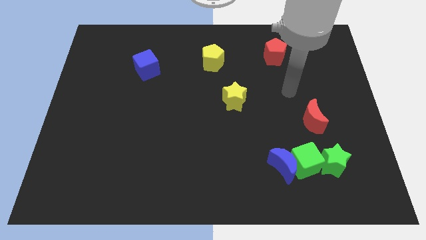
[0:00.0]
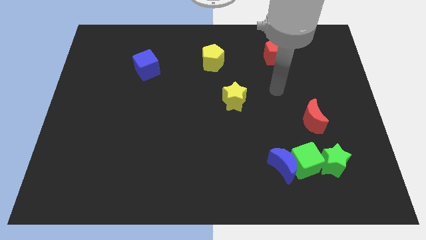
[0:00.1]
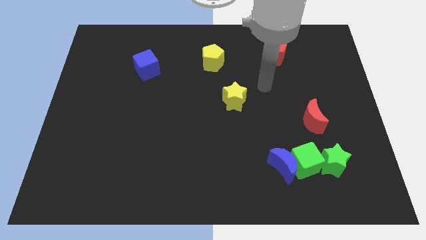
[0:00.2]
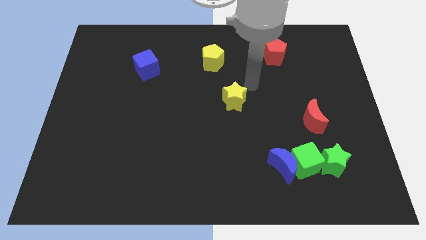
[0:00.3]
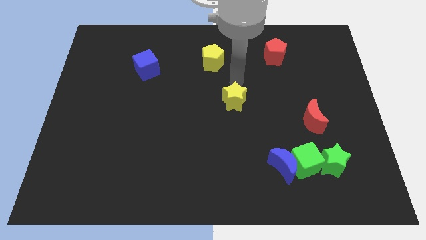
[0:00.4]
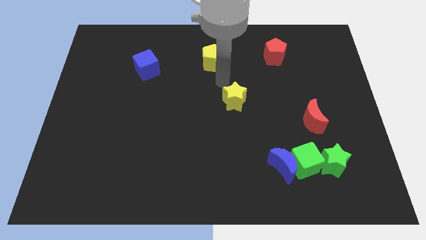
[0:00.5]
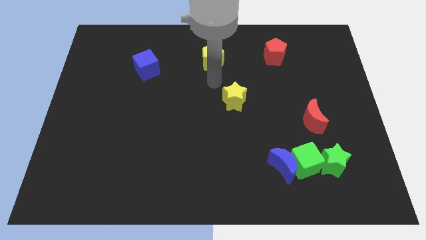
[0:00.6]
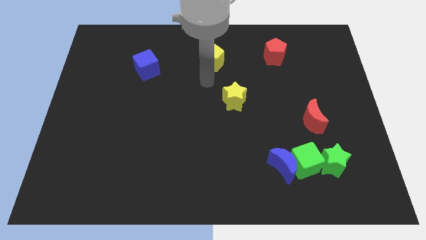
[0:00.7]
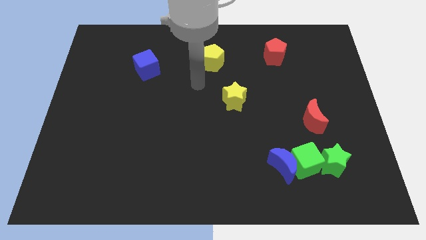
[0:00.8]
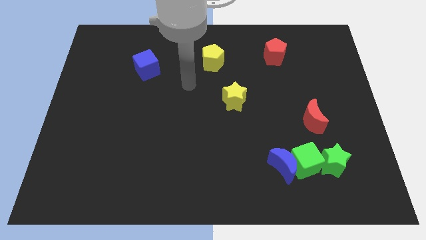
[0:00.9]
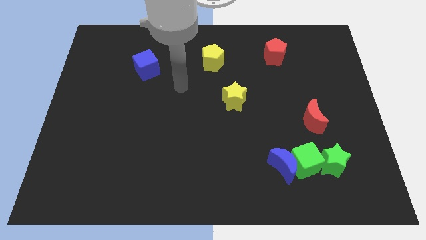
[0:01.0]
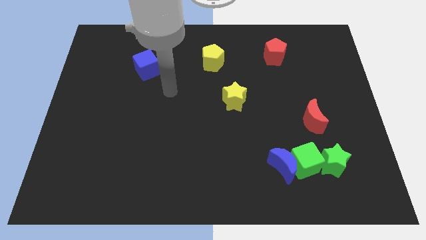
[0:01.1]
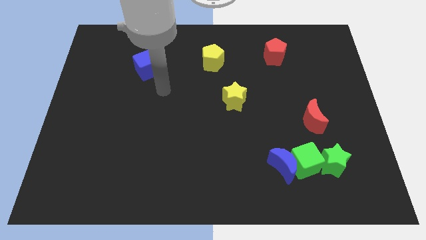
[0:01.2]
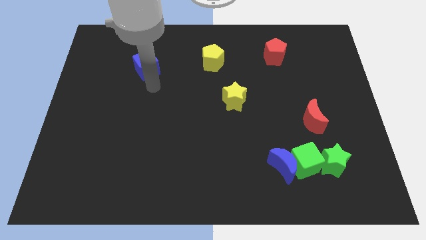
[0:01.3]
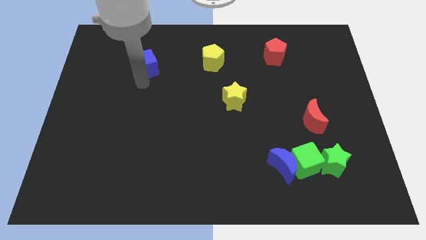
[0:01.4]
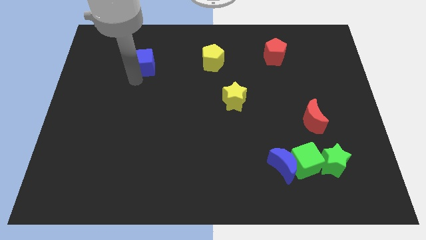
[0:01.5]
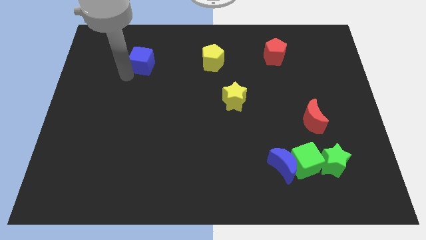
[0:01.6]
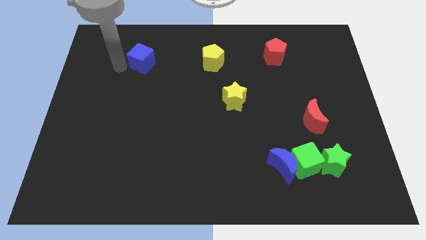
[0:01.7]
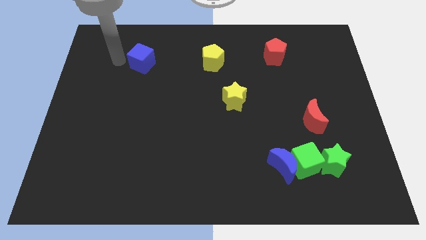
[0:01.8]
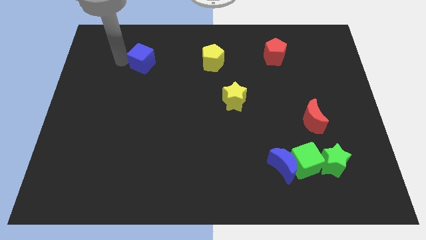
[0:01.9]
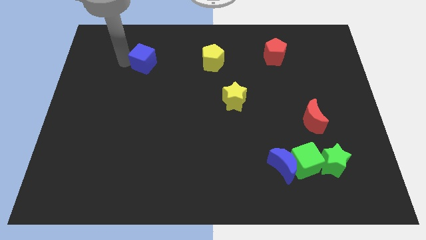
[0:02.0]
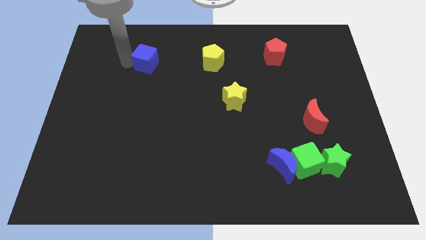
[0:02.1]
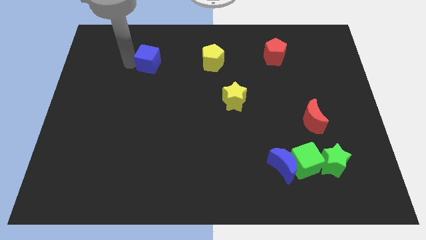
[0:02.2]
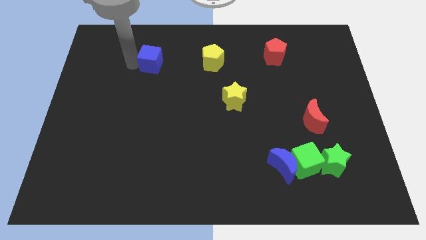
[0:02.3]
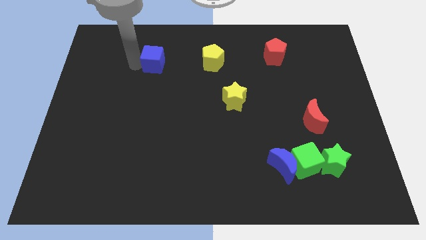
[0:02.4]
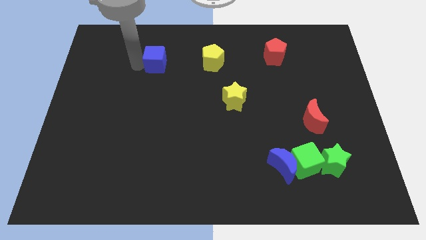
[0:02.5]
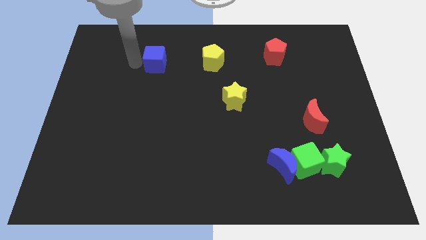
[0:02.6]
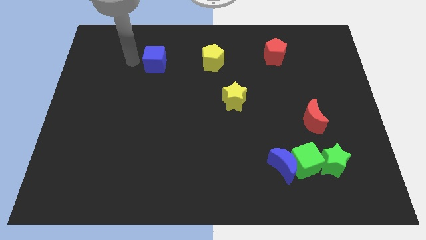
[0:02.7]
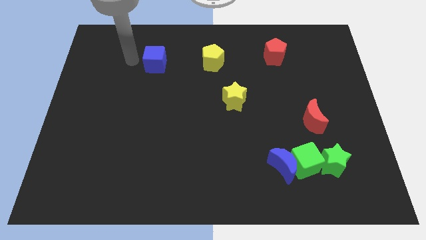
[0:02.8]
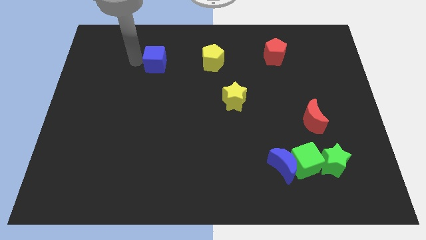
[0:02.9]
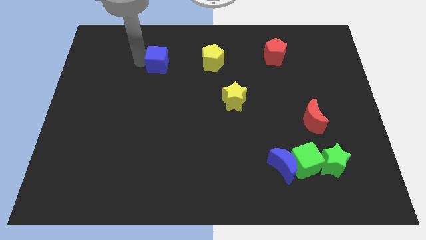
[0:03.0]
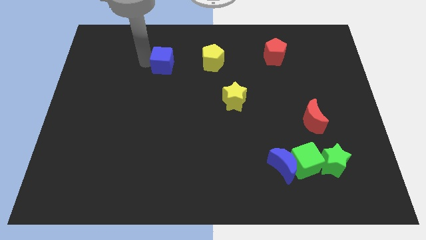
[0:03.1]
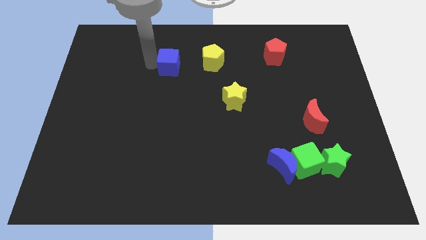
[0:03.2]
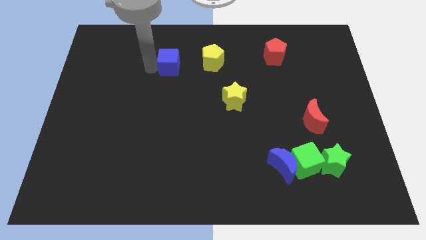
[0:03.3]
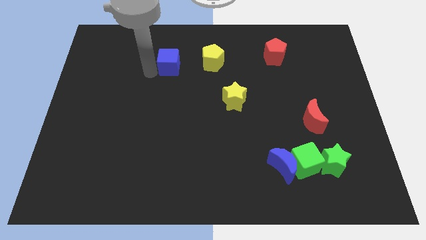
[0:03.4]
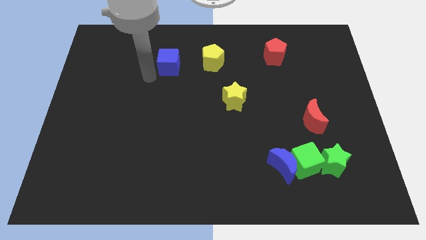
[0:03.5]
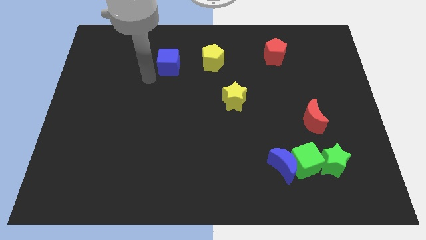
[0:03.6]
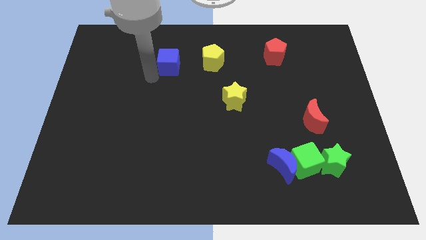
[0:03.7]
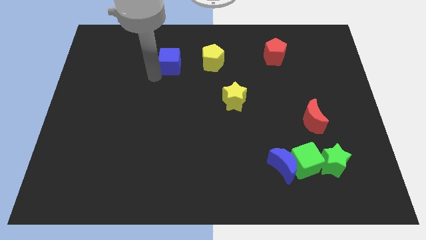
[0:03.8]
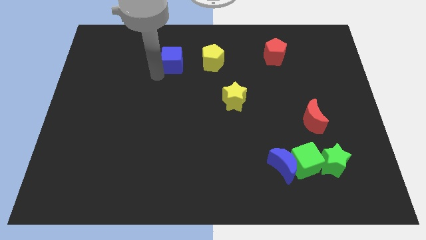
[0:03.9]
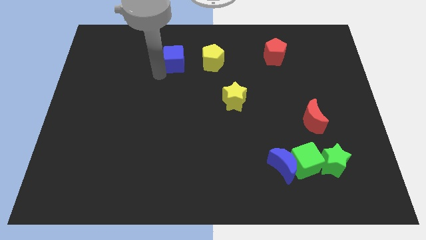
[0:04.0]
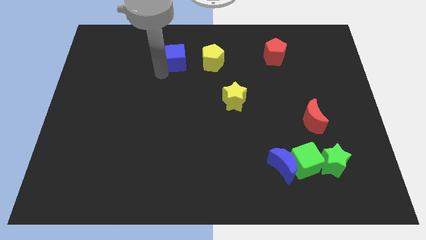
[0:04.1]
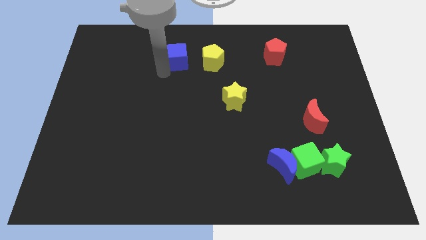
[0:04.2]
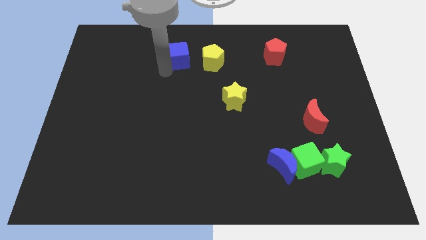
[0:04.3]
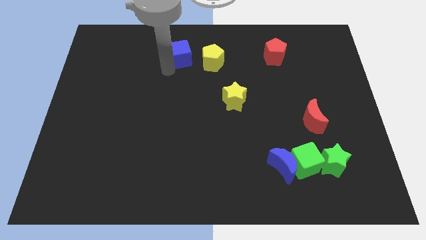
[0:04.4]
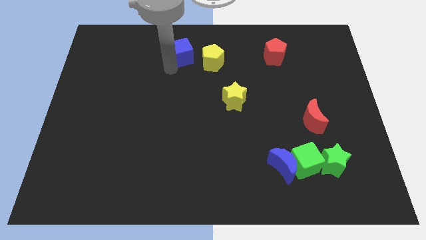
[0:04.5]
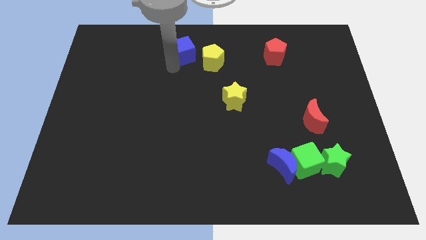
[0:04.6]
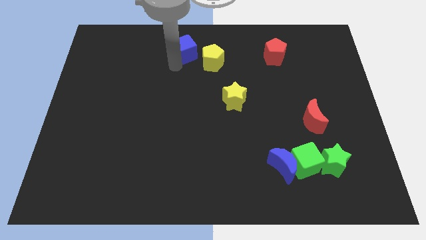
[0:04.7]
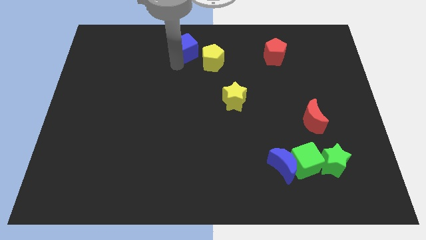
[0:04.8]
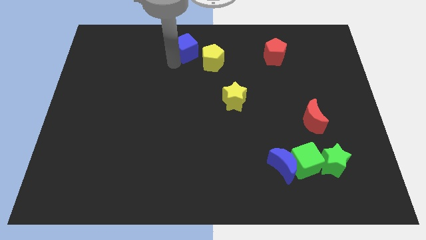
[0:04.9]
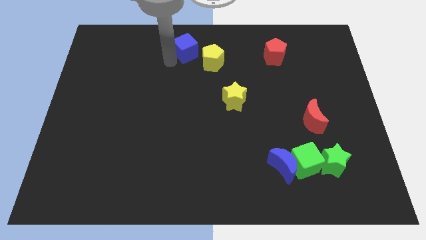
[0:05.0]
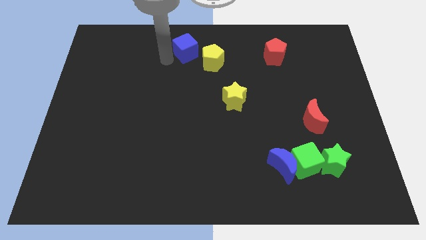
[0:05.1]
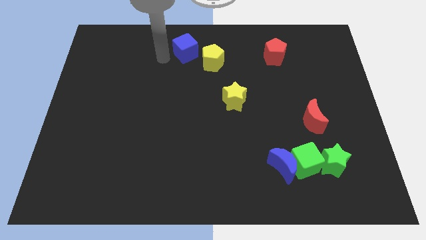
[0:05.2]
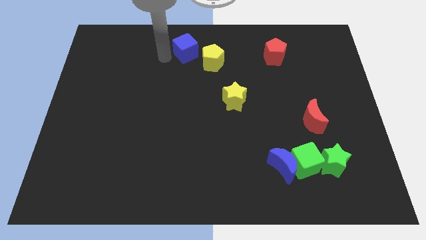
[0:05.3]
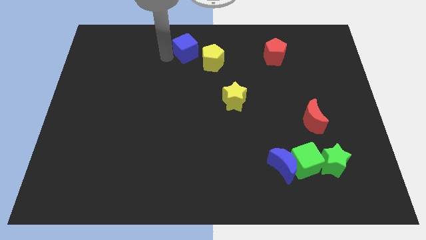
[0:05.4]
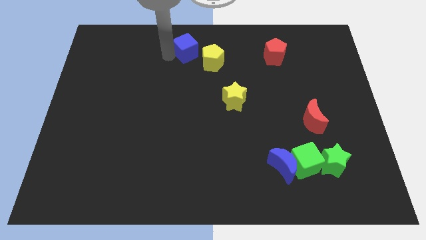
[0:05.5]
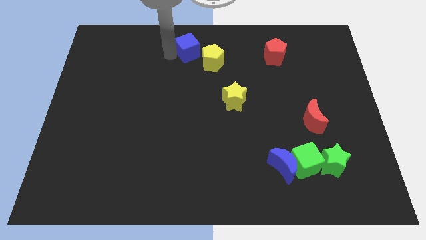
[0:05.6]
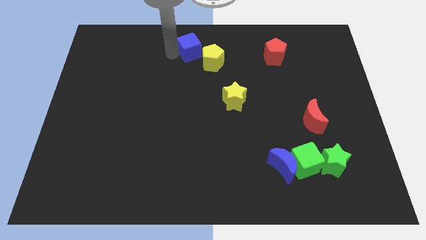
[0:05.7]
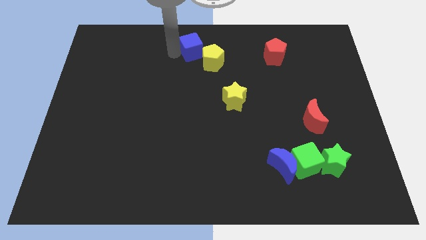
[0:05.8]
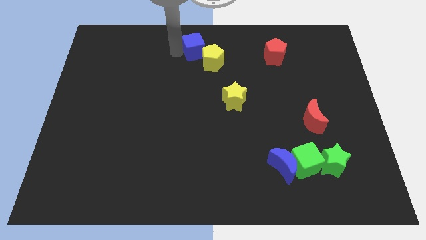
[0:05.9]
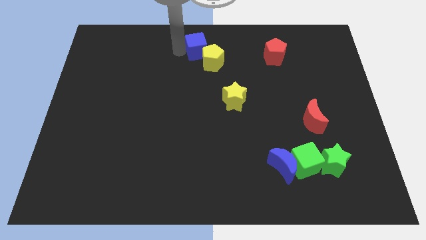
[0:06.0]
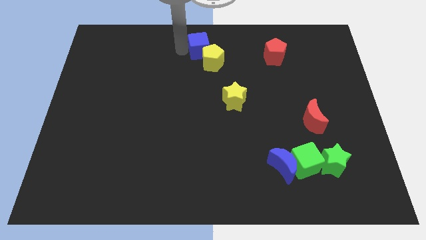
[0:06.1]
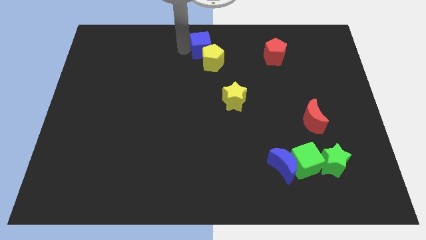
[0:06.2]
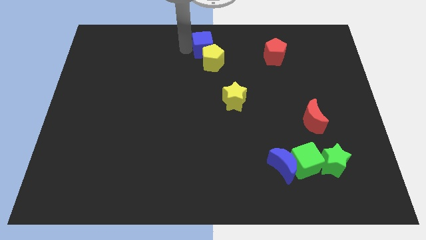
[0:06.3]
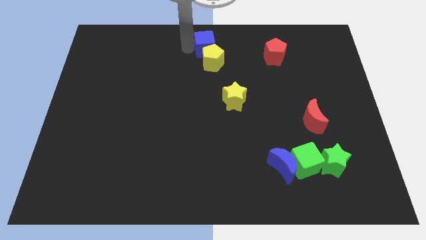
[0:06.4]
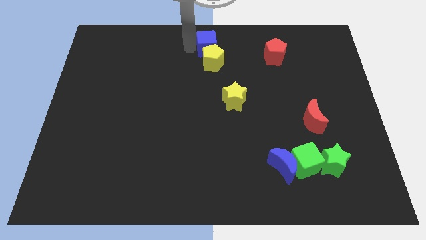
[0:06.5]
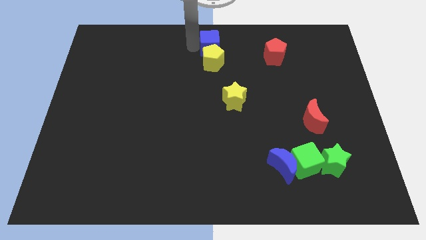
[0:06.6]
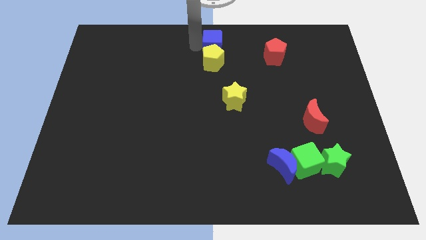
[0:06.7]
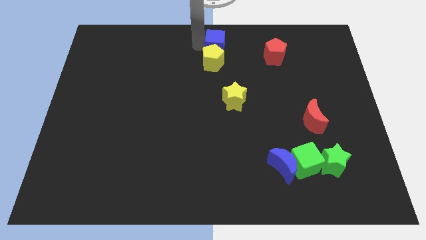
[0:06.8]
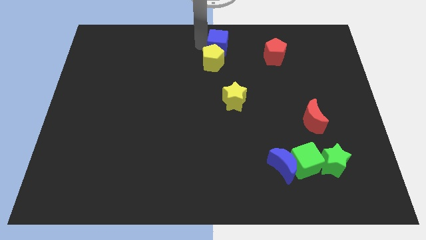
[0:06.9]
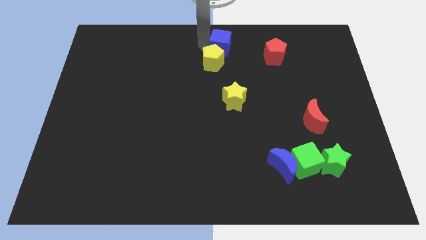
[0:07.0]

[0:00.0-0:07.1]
push the blue cube just left of the red pentagon

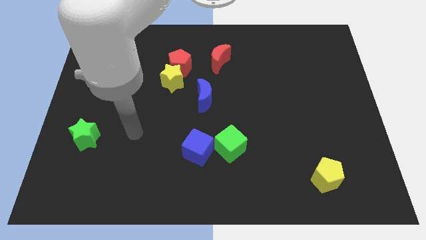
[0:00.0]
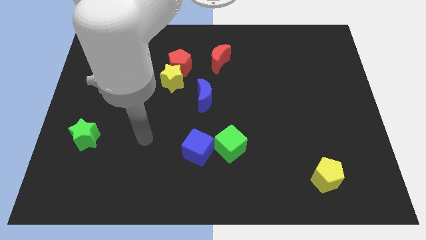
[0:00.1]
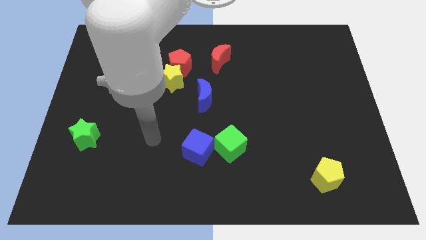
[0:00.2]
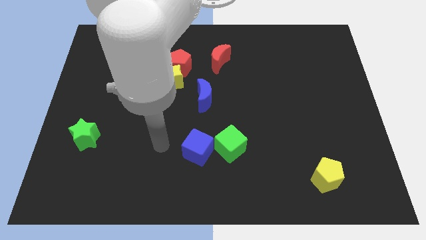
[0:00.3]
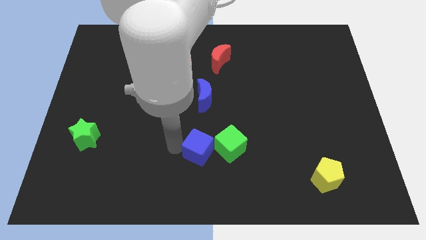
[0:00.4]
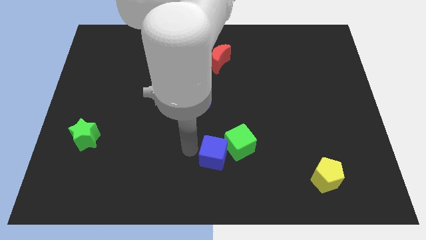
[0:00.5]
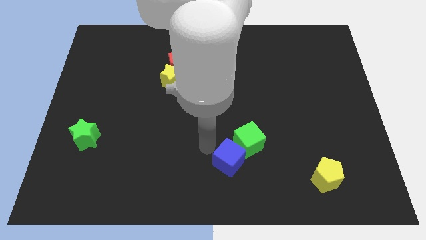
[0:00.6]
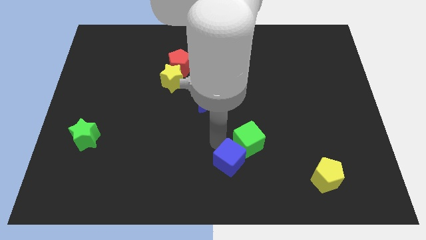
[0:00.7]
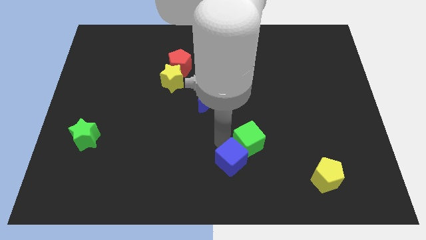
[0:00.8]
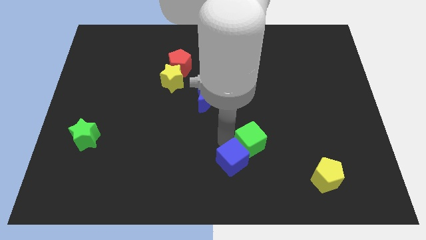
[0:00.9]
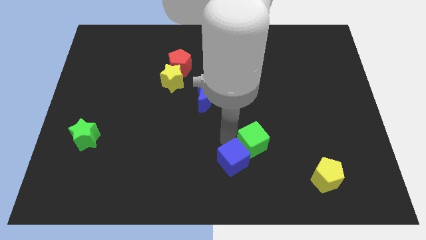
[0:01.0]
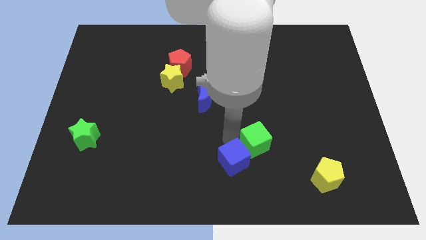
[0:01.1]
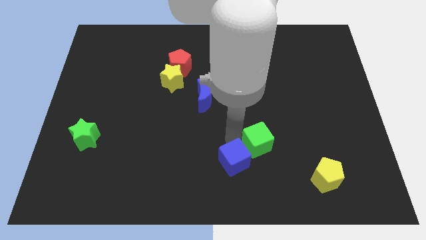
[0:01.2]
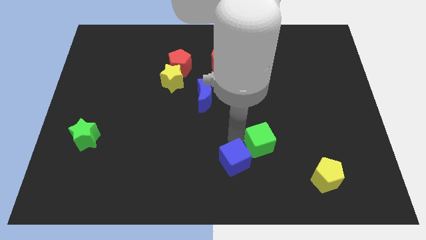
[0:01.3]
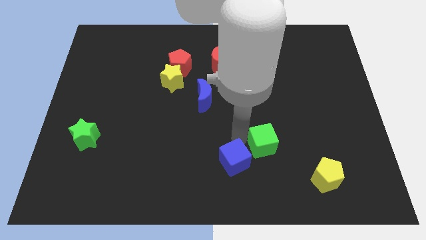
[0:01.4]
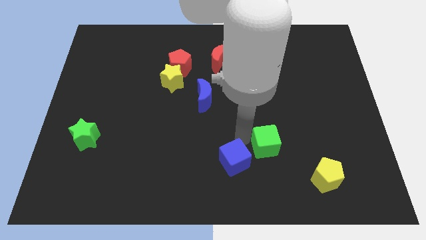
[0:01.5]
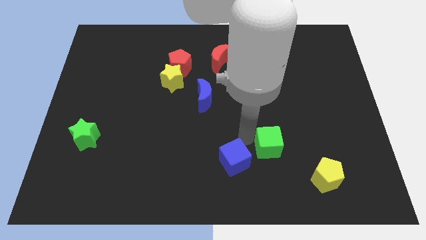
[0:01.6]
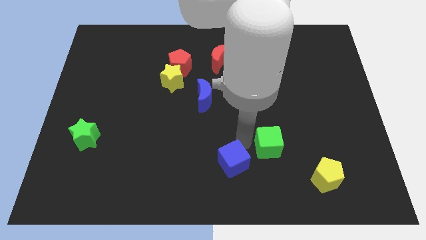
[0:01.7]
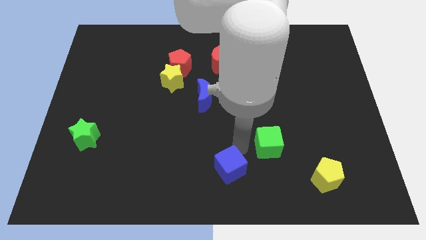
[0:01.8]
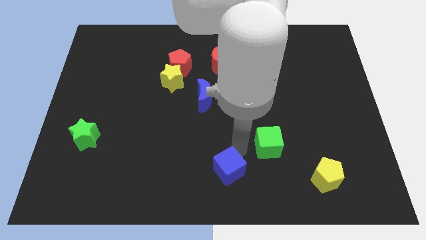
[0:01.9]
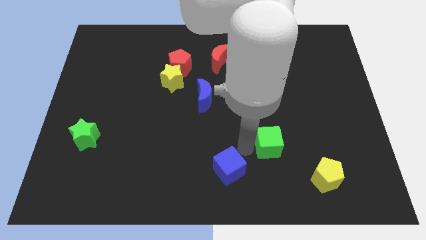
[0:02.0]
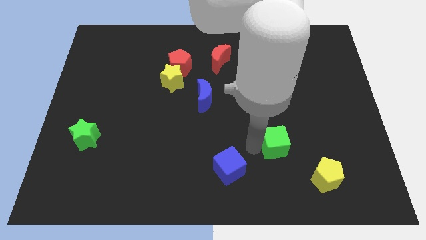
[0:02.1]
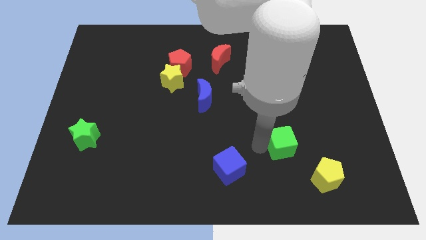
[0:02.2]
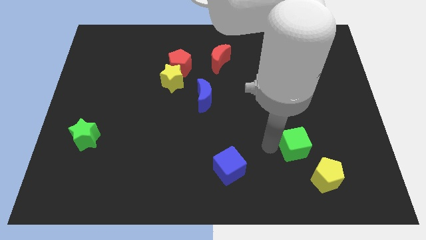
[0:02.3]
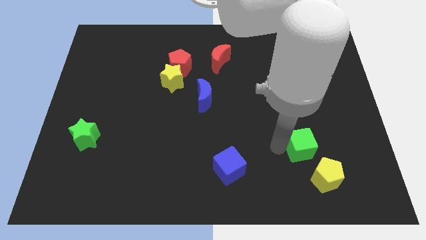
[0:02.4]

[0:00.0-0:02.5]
slide the green cube above the yellow pentagon
